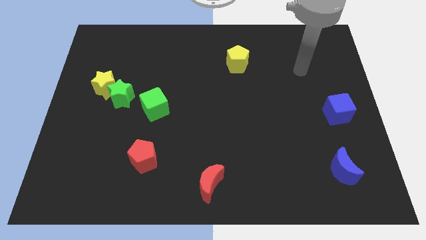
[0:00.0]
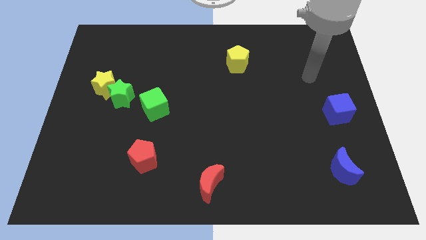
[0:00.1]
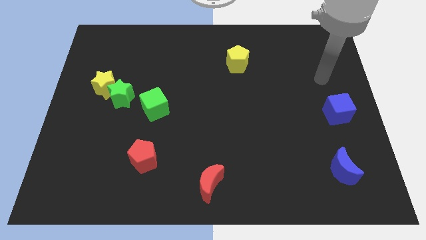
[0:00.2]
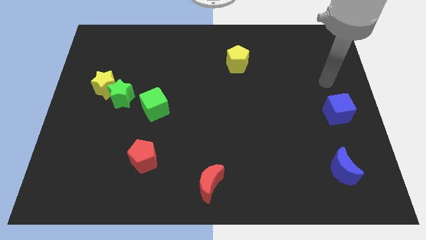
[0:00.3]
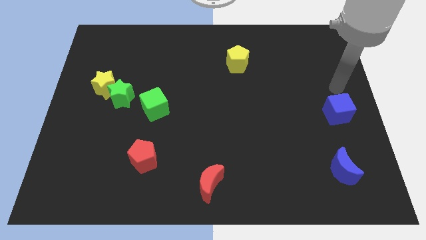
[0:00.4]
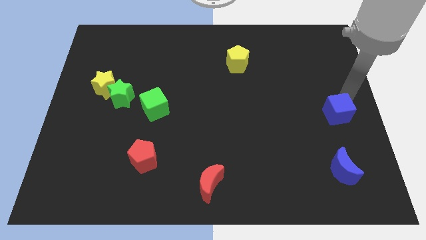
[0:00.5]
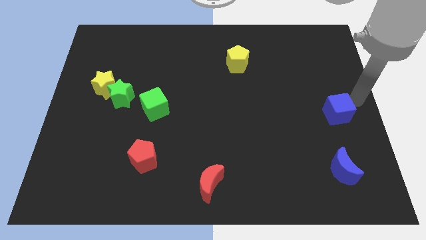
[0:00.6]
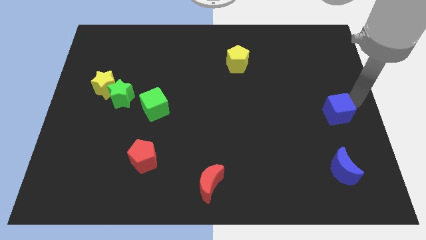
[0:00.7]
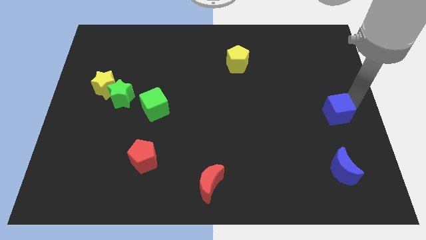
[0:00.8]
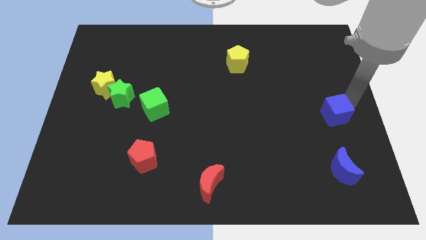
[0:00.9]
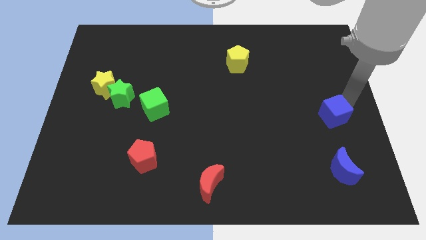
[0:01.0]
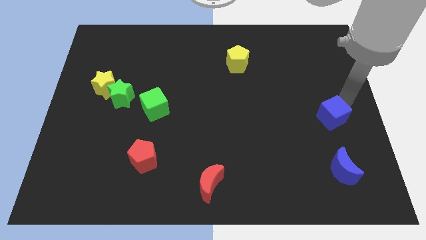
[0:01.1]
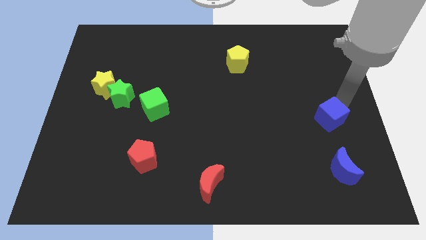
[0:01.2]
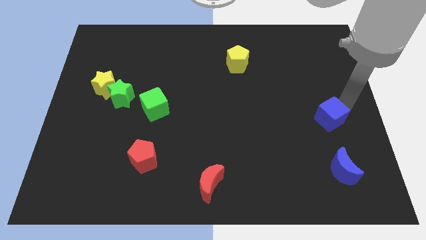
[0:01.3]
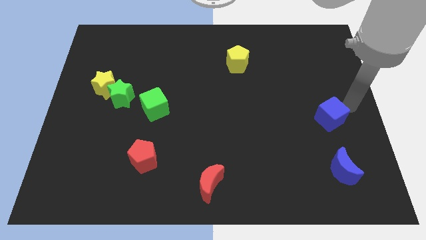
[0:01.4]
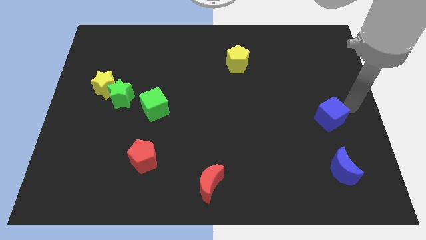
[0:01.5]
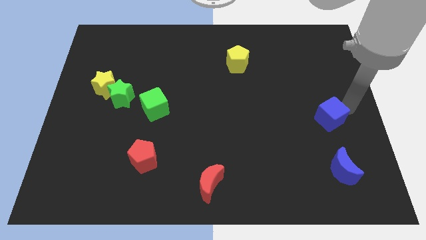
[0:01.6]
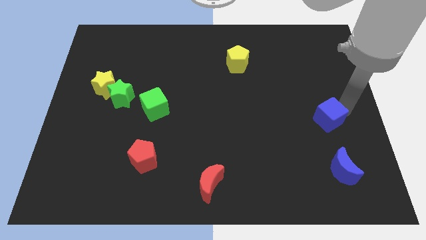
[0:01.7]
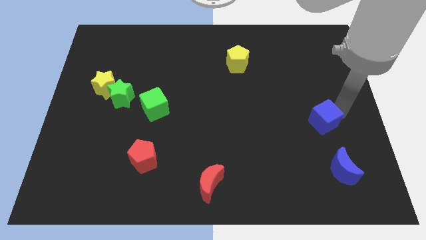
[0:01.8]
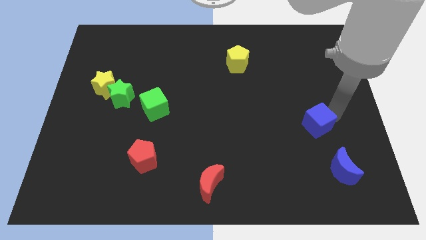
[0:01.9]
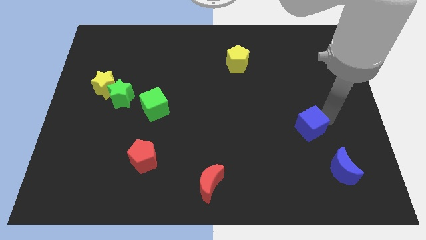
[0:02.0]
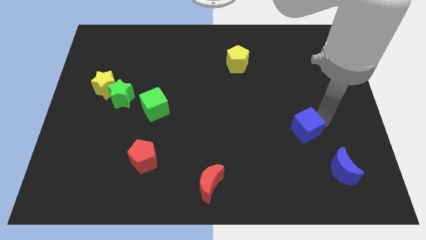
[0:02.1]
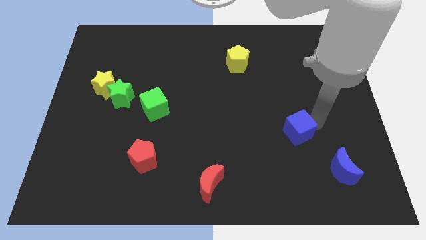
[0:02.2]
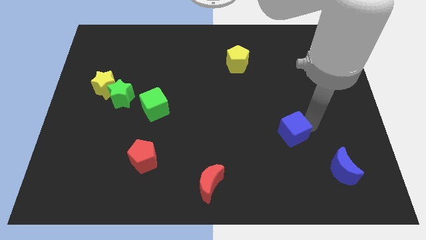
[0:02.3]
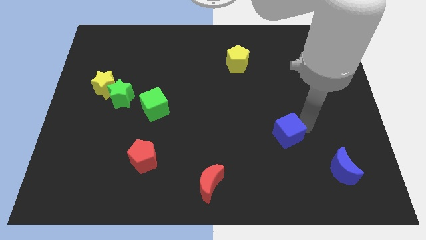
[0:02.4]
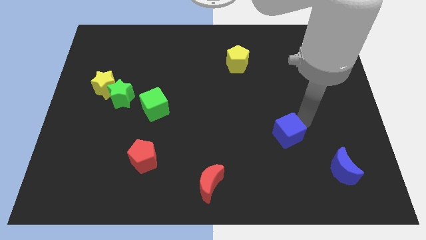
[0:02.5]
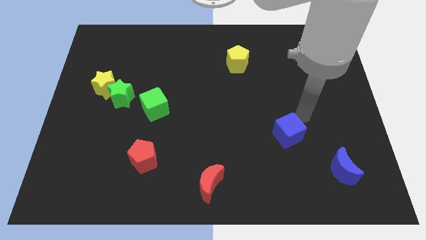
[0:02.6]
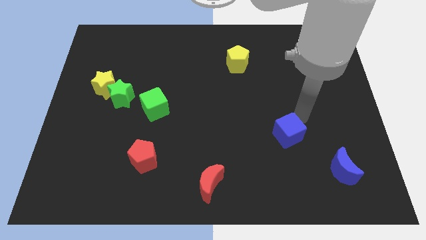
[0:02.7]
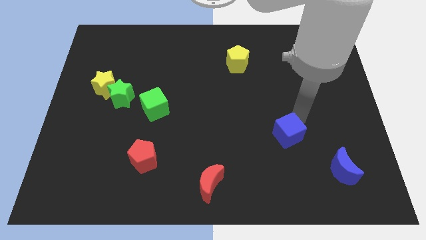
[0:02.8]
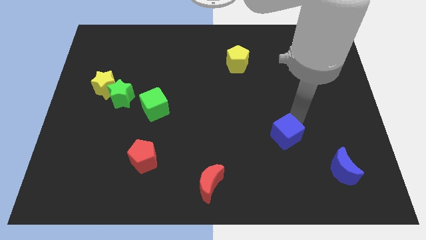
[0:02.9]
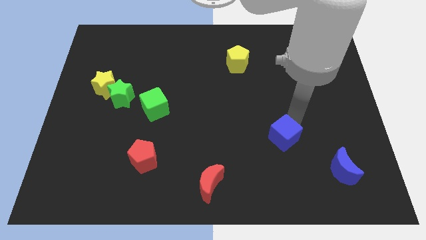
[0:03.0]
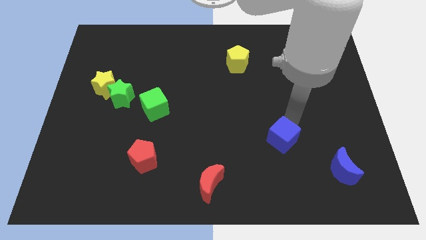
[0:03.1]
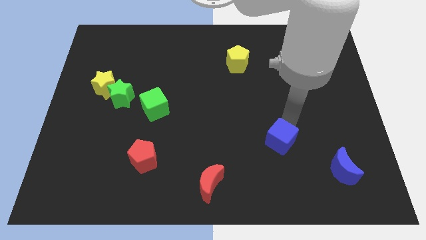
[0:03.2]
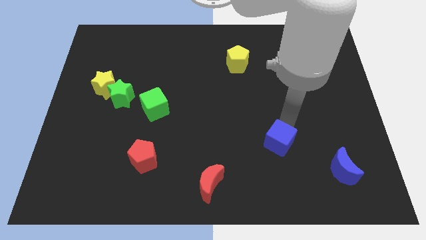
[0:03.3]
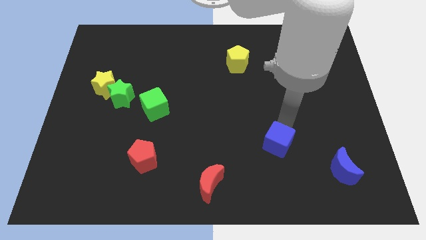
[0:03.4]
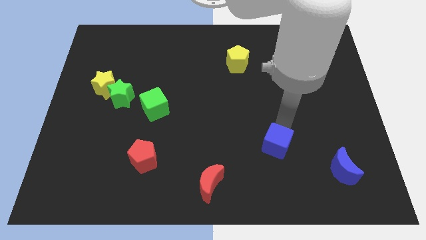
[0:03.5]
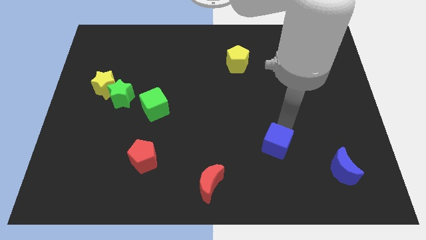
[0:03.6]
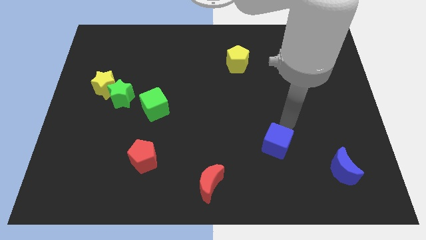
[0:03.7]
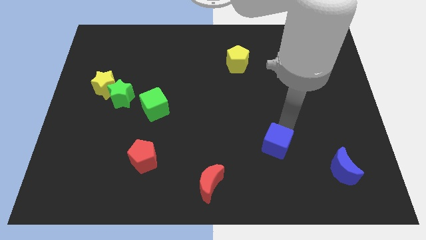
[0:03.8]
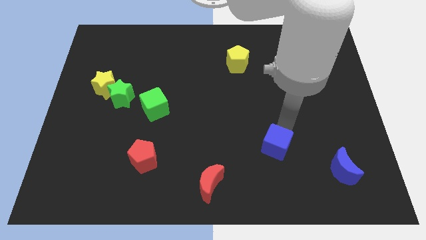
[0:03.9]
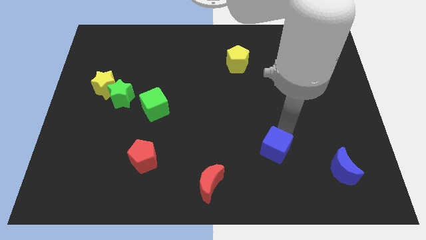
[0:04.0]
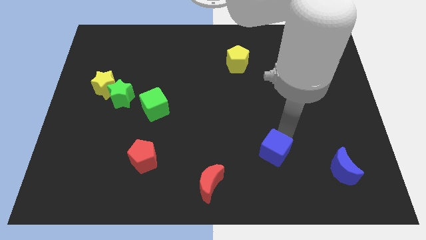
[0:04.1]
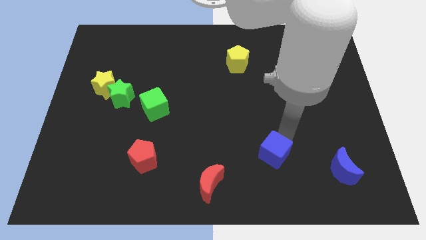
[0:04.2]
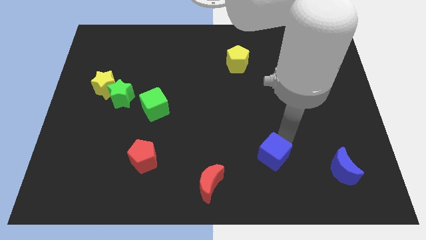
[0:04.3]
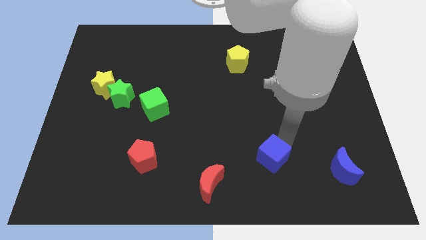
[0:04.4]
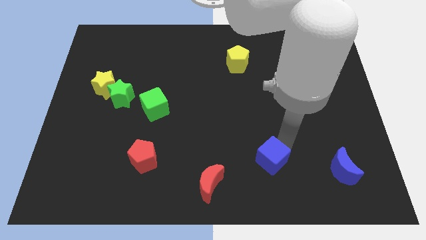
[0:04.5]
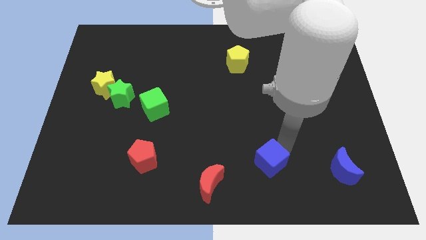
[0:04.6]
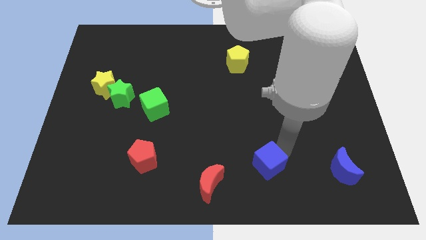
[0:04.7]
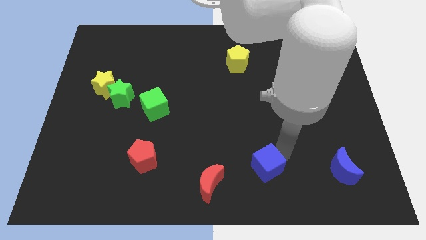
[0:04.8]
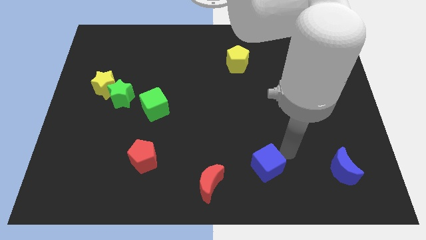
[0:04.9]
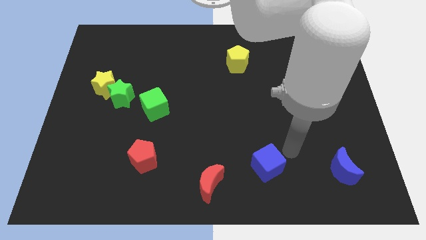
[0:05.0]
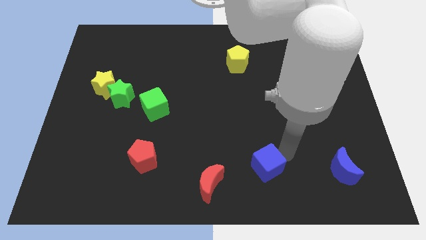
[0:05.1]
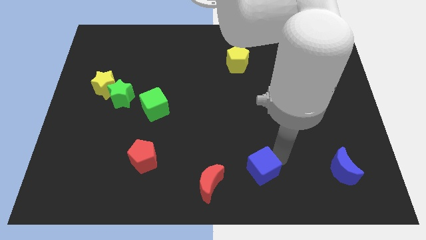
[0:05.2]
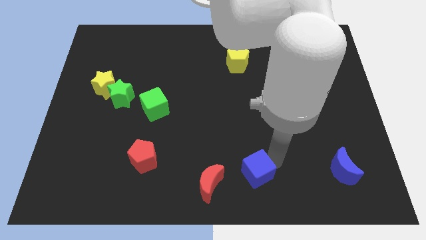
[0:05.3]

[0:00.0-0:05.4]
push the blue cube to the bottom side
